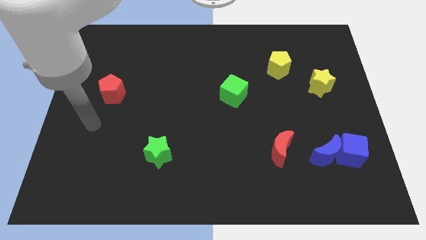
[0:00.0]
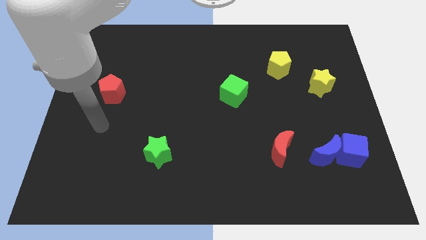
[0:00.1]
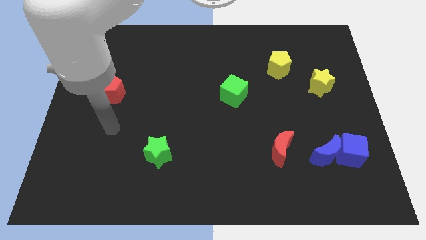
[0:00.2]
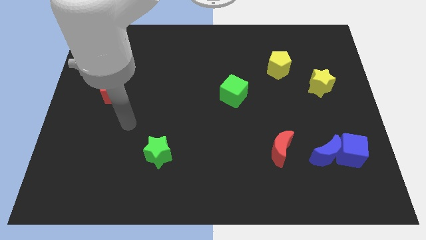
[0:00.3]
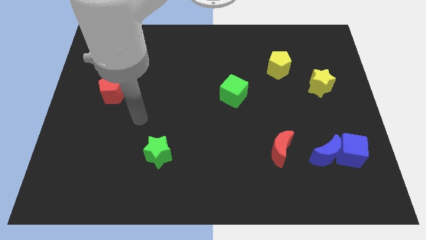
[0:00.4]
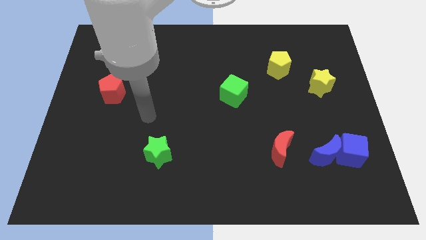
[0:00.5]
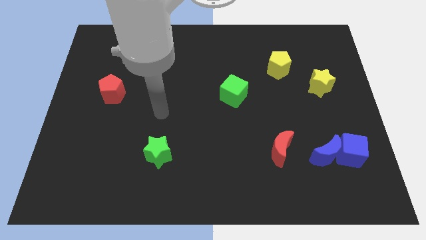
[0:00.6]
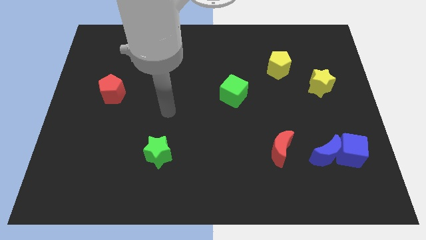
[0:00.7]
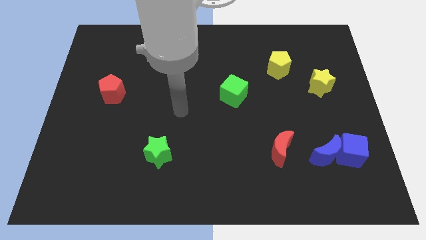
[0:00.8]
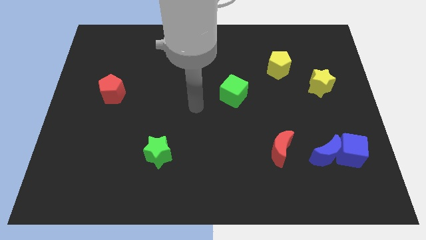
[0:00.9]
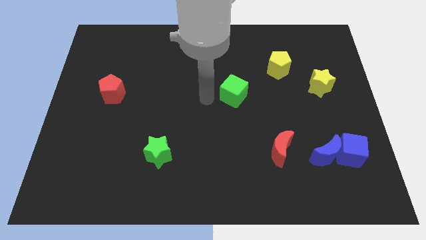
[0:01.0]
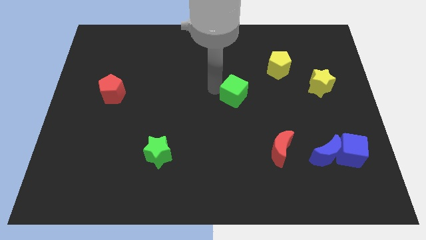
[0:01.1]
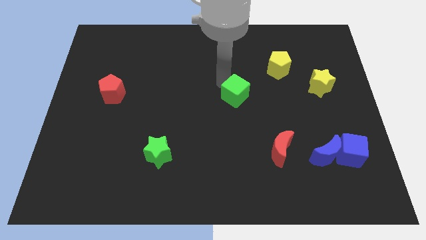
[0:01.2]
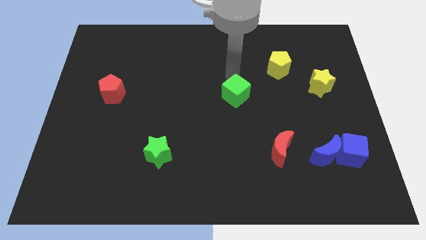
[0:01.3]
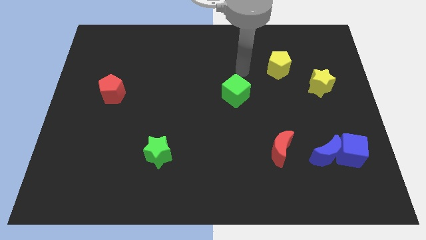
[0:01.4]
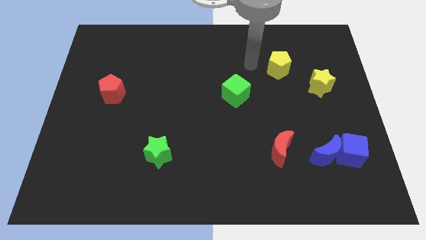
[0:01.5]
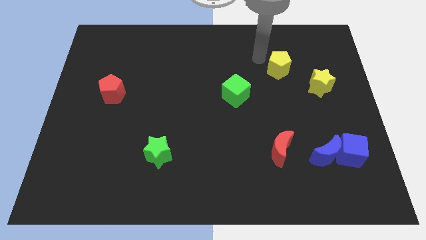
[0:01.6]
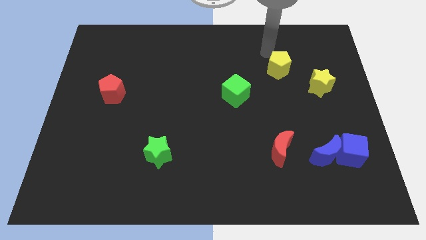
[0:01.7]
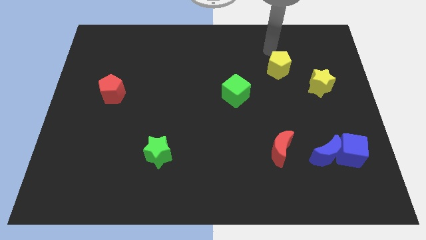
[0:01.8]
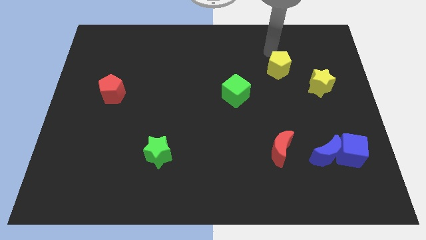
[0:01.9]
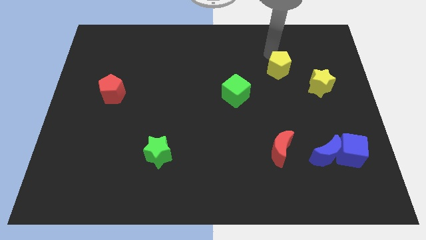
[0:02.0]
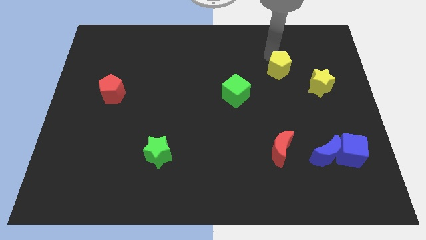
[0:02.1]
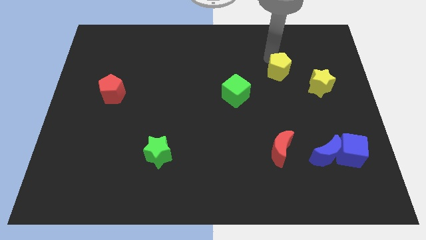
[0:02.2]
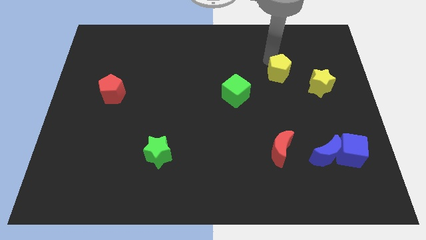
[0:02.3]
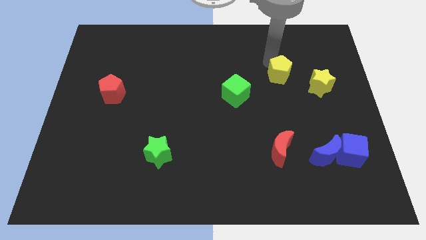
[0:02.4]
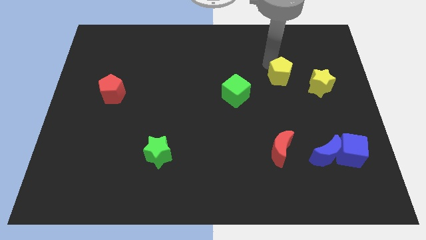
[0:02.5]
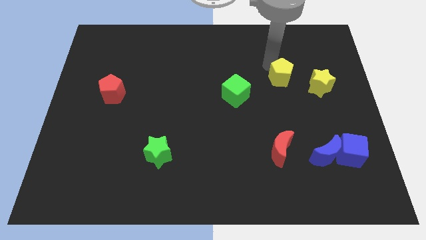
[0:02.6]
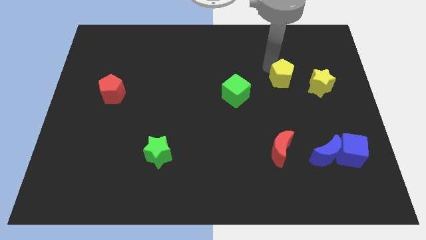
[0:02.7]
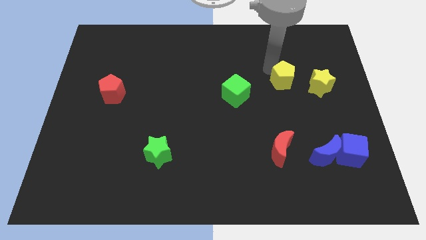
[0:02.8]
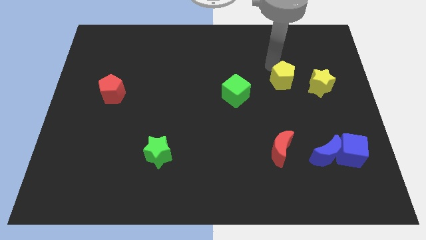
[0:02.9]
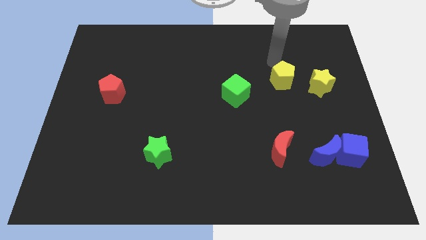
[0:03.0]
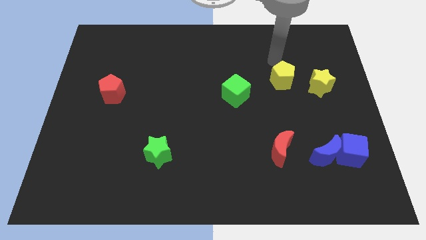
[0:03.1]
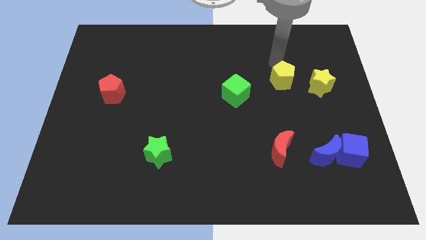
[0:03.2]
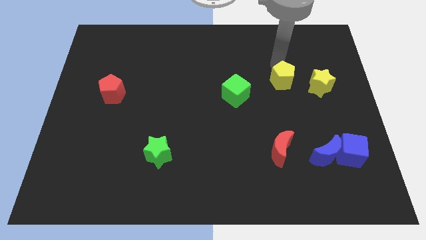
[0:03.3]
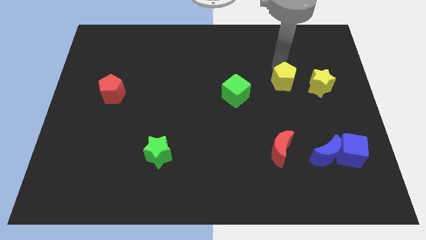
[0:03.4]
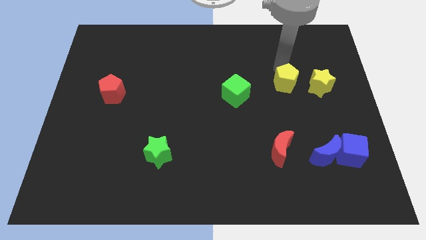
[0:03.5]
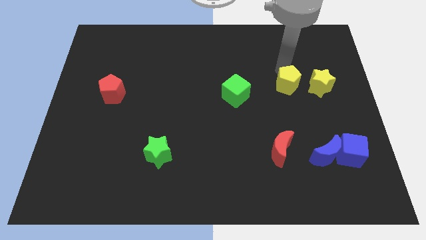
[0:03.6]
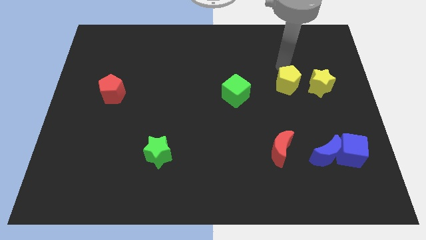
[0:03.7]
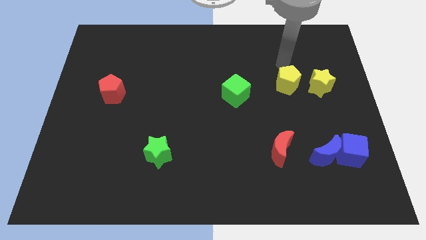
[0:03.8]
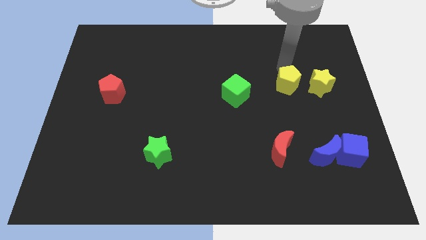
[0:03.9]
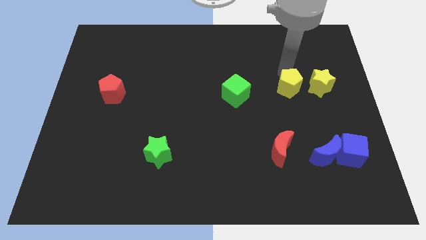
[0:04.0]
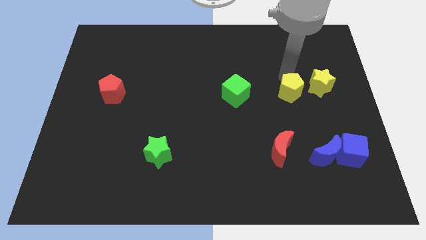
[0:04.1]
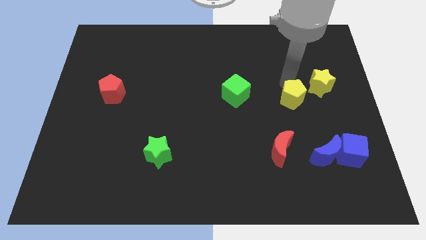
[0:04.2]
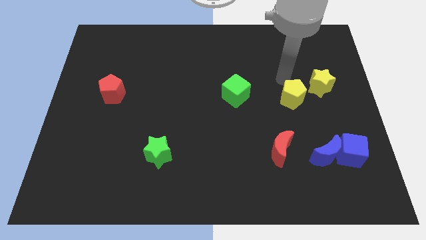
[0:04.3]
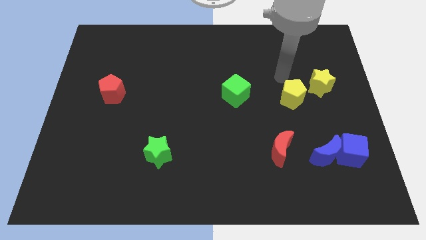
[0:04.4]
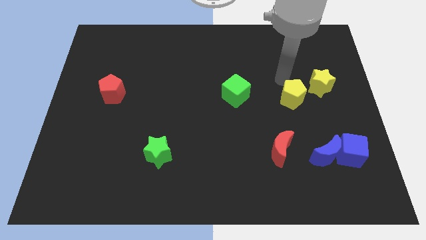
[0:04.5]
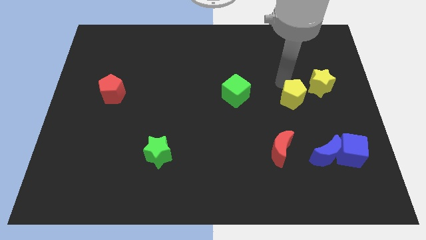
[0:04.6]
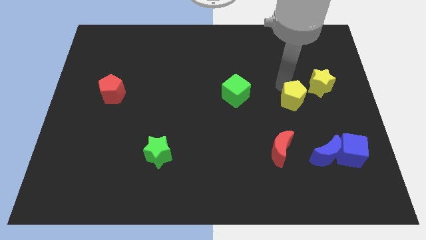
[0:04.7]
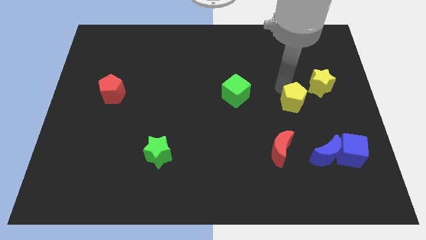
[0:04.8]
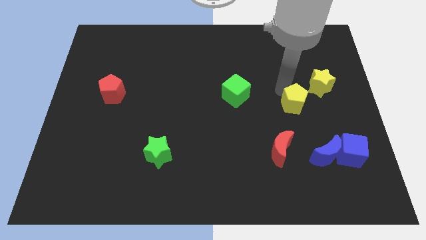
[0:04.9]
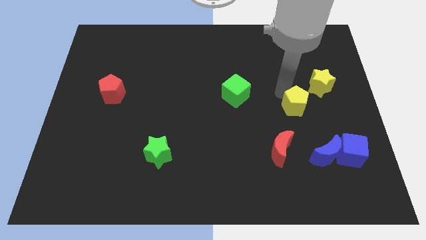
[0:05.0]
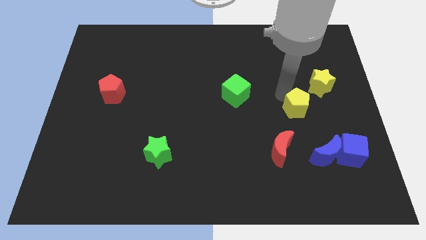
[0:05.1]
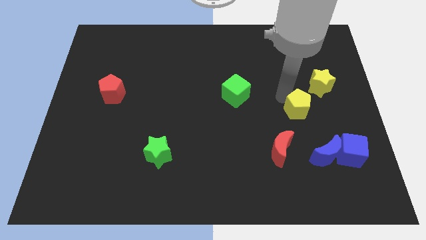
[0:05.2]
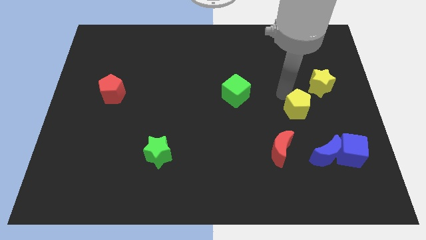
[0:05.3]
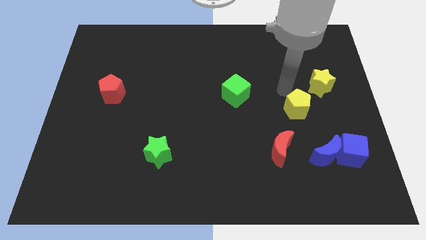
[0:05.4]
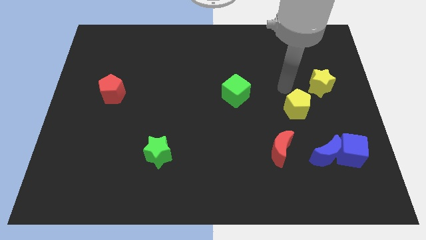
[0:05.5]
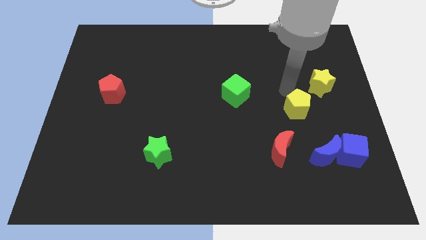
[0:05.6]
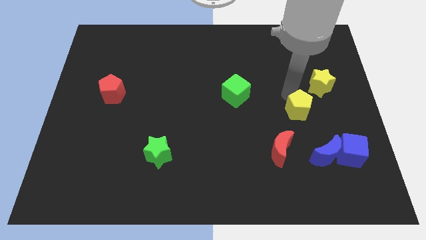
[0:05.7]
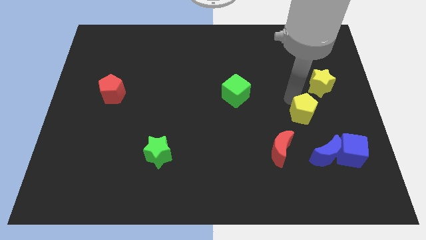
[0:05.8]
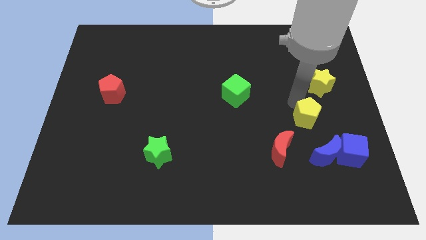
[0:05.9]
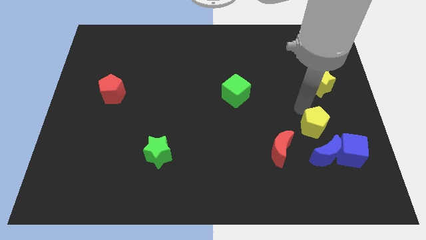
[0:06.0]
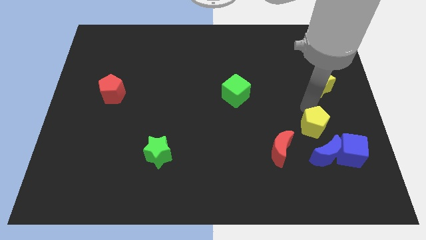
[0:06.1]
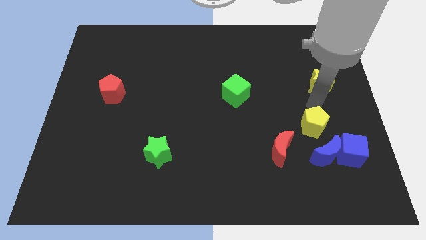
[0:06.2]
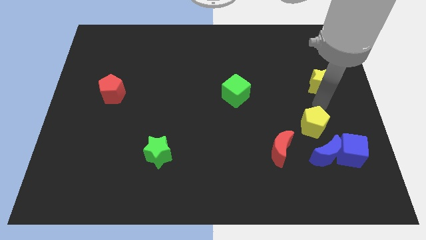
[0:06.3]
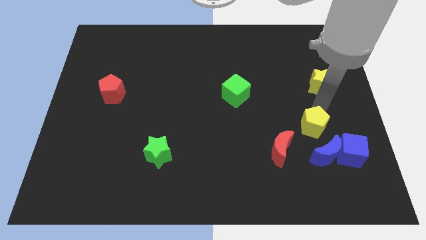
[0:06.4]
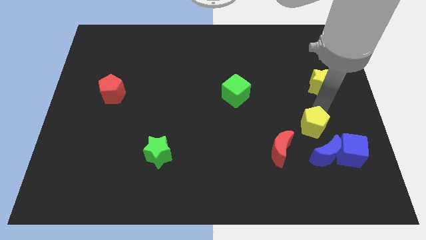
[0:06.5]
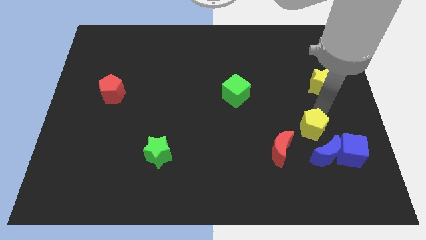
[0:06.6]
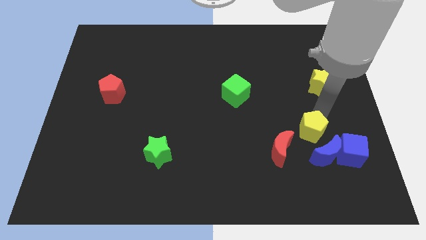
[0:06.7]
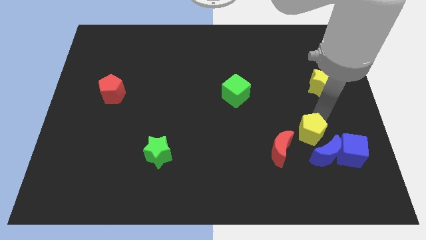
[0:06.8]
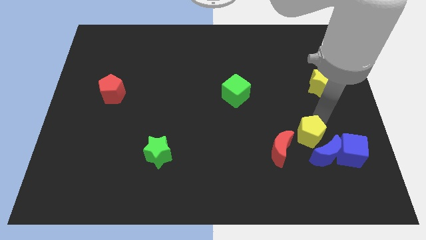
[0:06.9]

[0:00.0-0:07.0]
move the yellow pentagon downwards

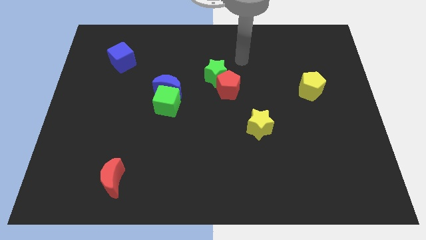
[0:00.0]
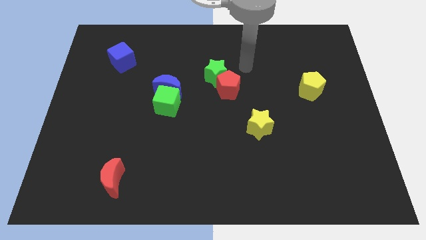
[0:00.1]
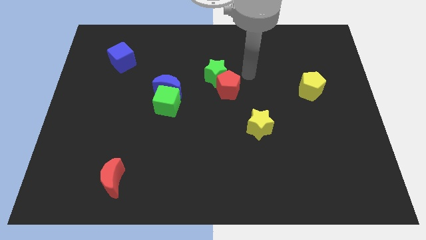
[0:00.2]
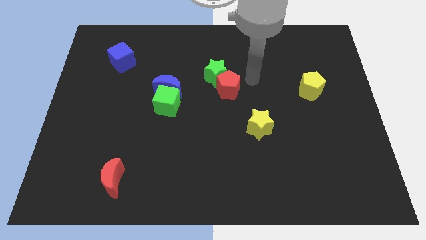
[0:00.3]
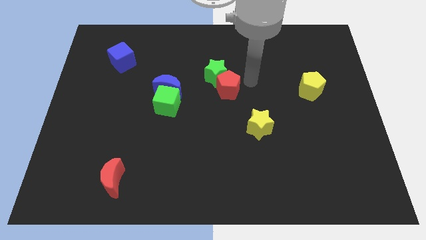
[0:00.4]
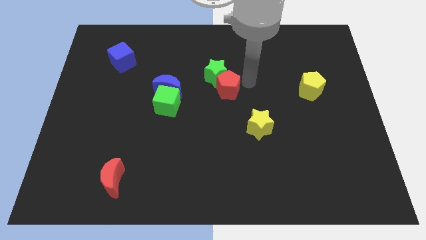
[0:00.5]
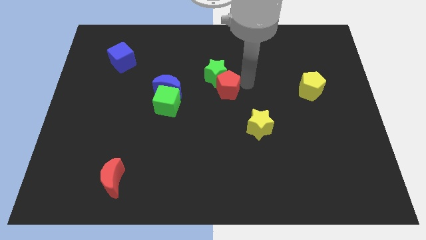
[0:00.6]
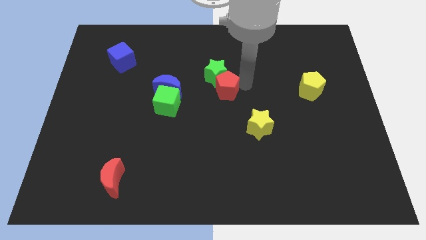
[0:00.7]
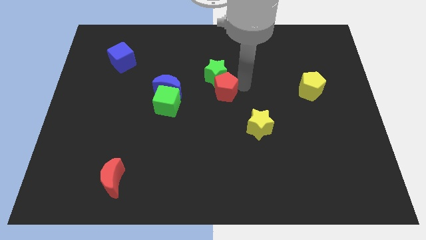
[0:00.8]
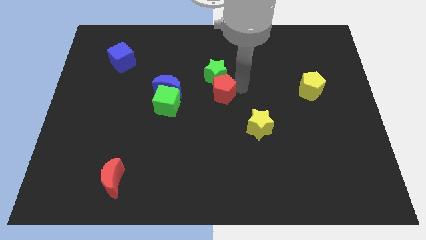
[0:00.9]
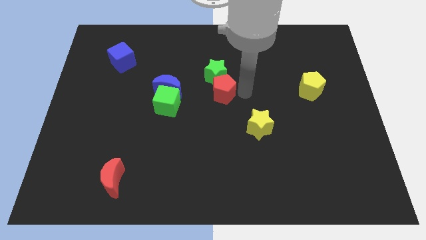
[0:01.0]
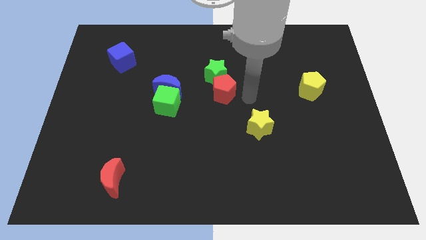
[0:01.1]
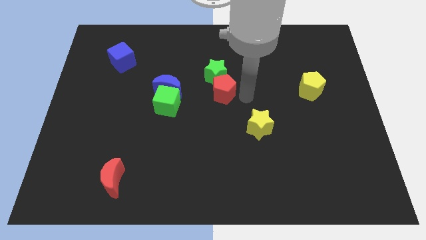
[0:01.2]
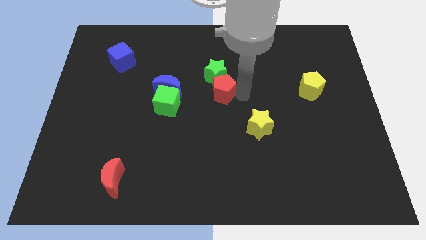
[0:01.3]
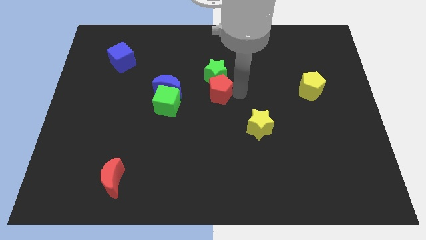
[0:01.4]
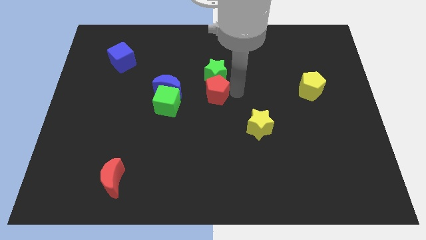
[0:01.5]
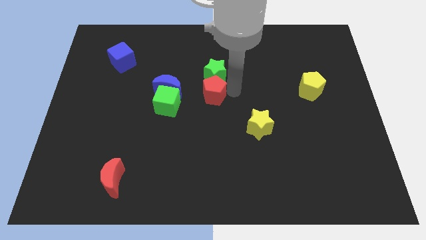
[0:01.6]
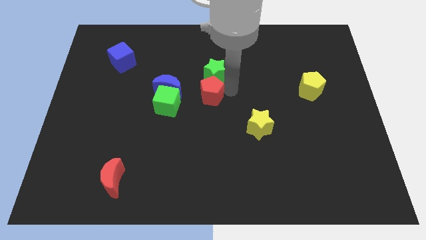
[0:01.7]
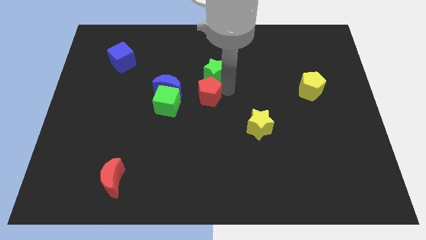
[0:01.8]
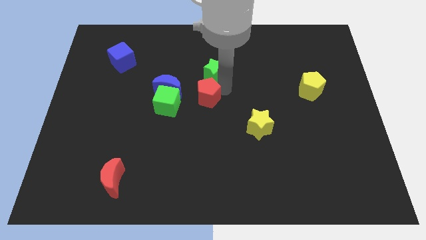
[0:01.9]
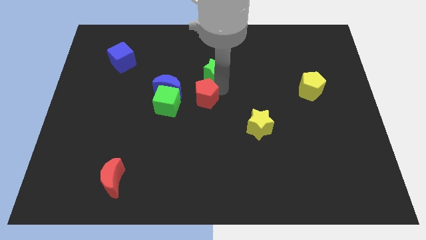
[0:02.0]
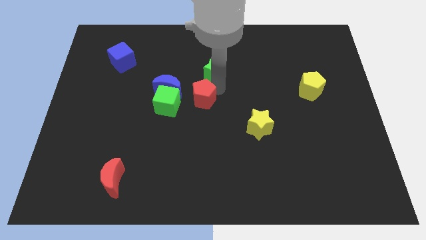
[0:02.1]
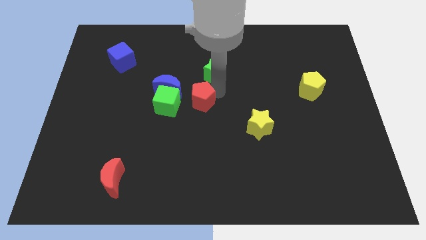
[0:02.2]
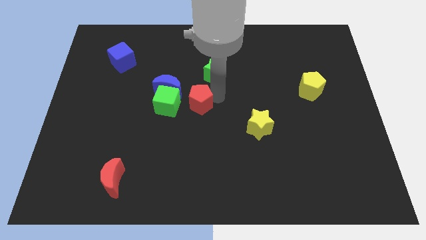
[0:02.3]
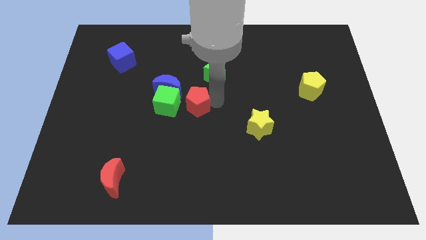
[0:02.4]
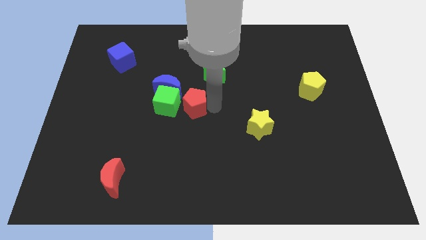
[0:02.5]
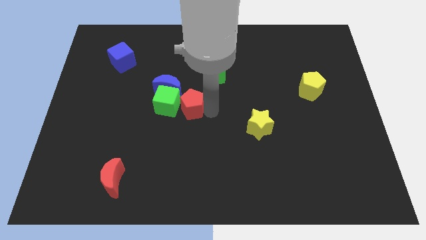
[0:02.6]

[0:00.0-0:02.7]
push the red pentagon a little left
